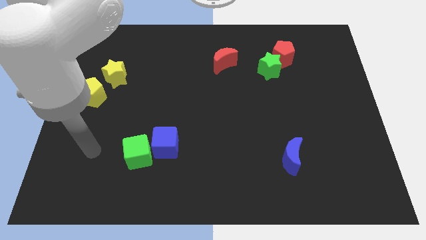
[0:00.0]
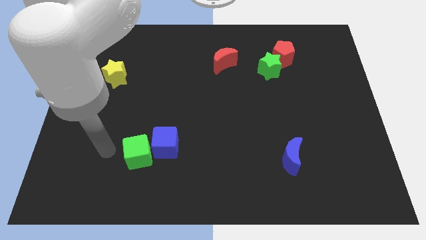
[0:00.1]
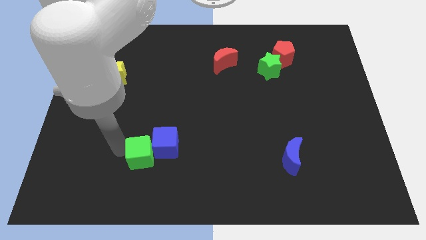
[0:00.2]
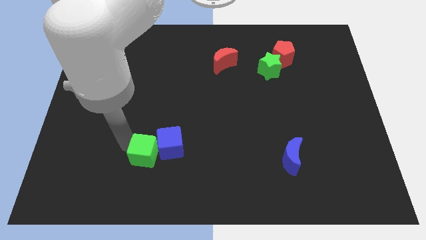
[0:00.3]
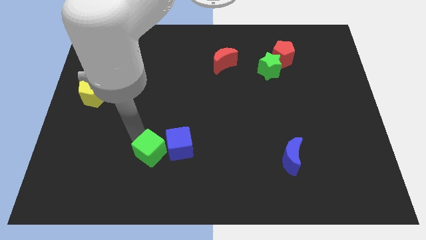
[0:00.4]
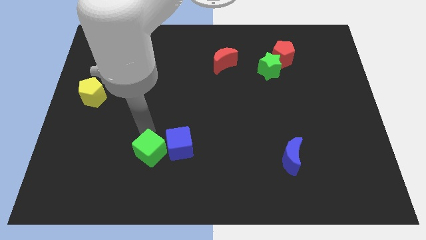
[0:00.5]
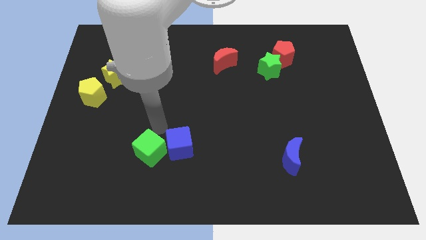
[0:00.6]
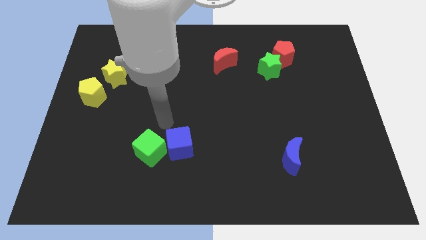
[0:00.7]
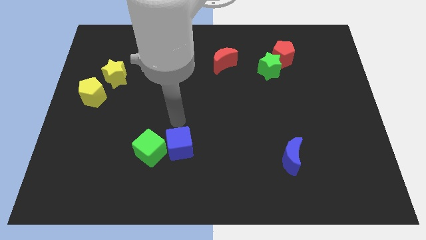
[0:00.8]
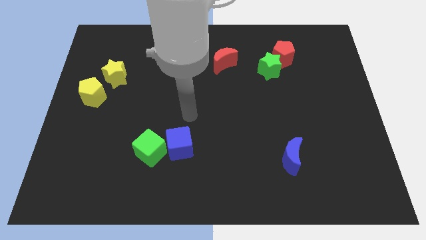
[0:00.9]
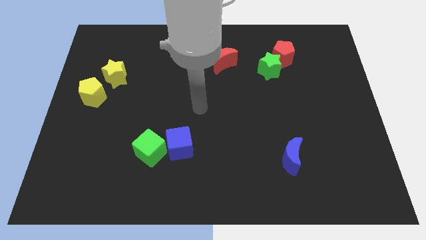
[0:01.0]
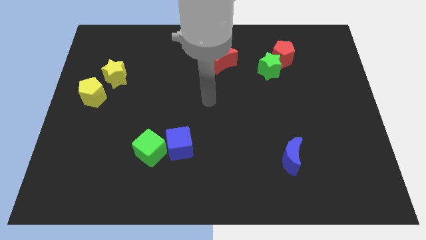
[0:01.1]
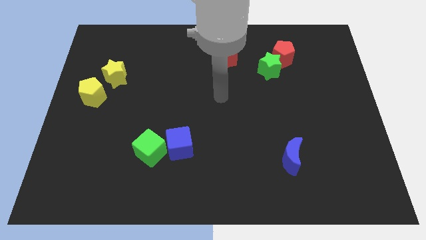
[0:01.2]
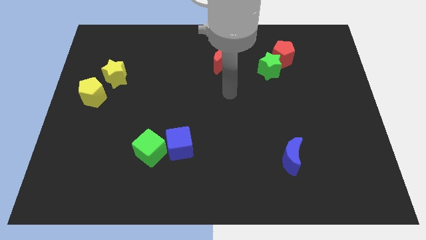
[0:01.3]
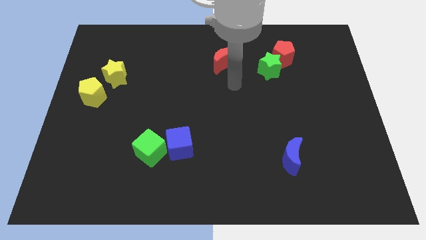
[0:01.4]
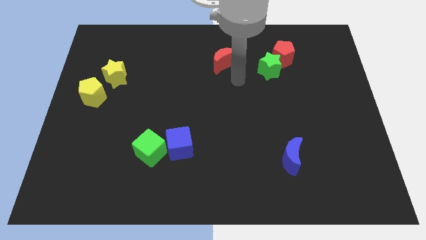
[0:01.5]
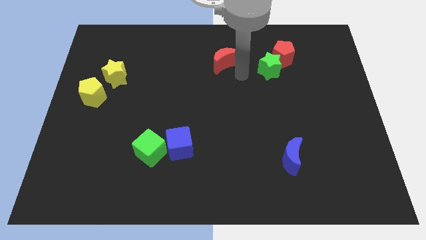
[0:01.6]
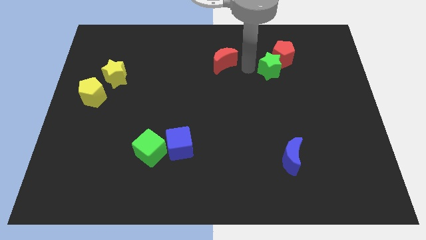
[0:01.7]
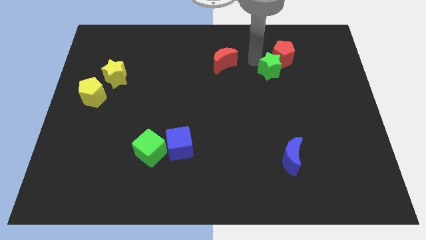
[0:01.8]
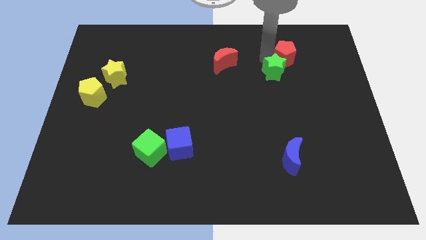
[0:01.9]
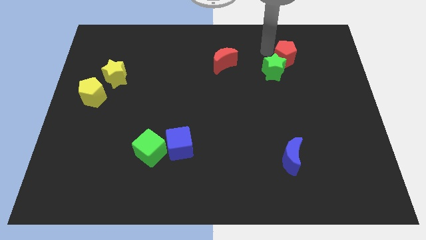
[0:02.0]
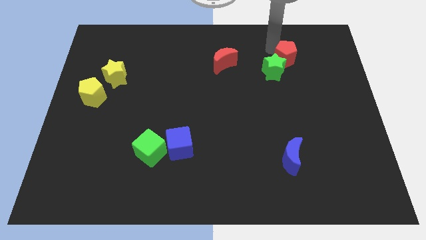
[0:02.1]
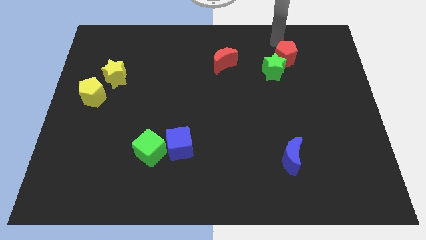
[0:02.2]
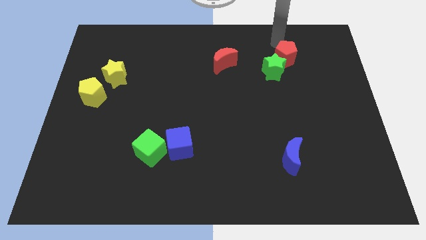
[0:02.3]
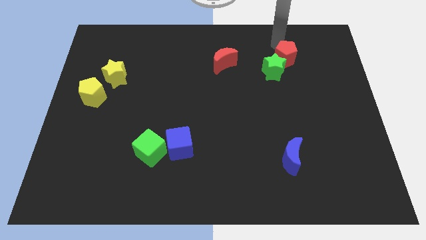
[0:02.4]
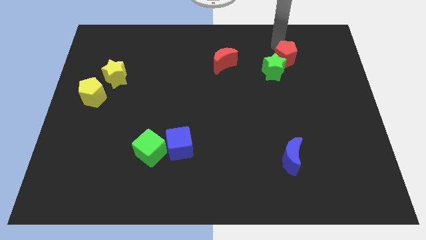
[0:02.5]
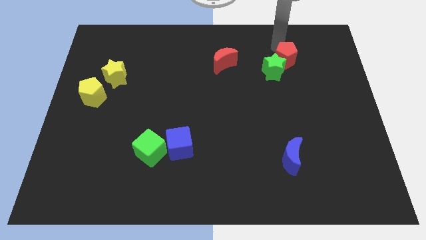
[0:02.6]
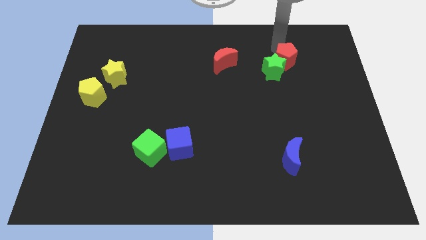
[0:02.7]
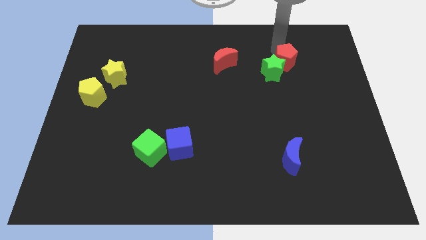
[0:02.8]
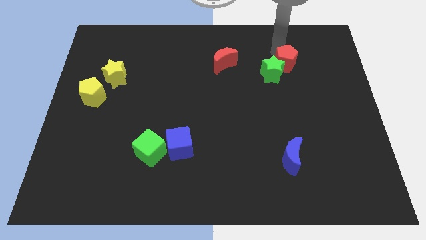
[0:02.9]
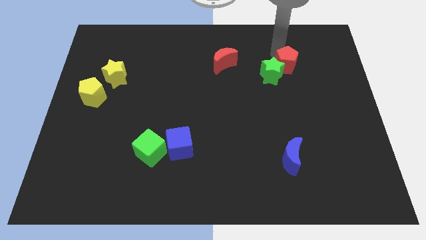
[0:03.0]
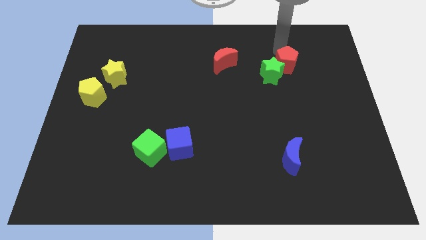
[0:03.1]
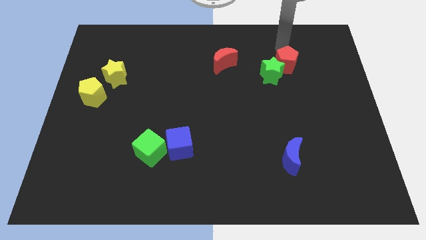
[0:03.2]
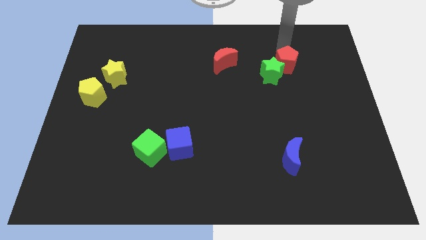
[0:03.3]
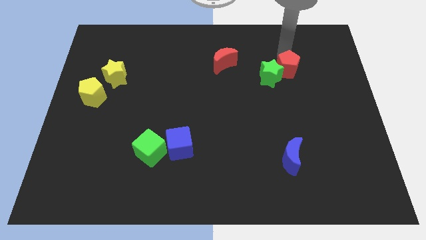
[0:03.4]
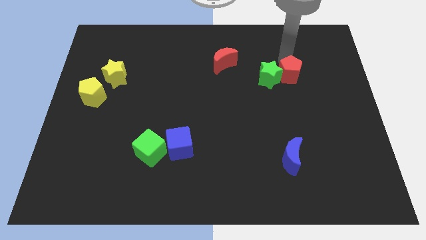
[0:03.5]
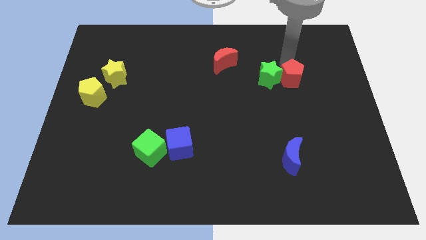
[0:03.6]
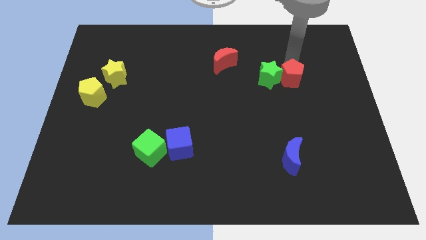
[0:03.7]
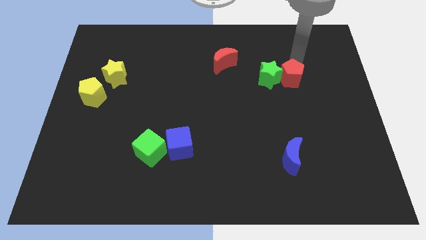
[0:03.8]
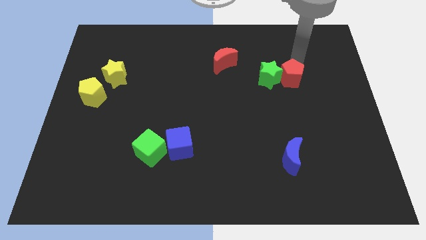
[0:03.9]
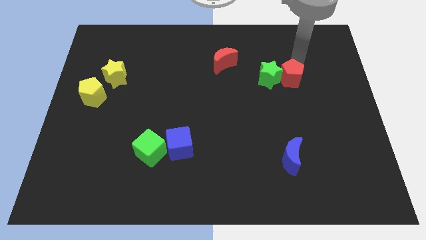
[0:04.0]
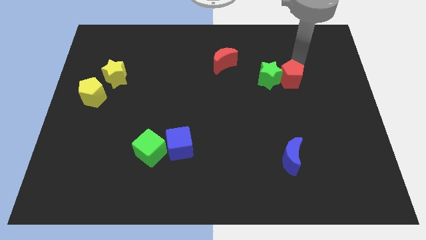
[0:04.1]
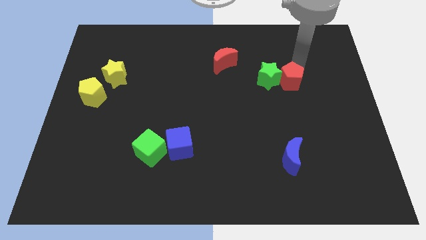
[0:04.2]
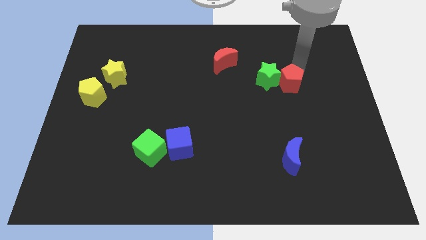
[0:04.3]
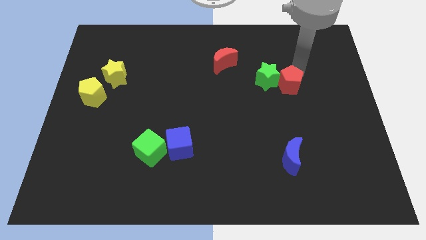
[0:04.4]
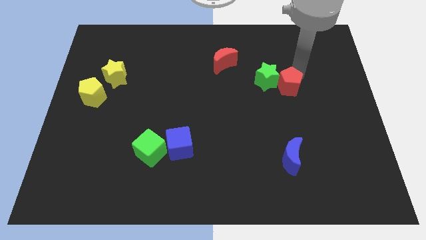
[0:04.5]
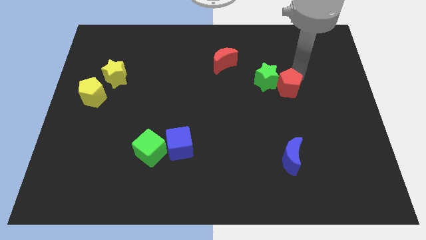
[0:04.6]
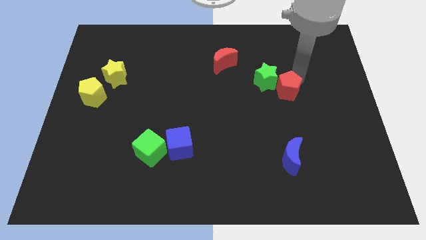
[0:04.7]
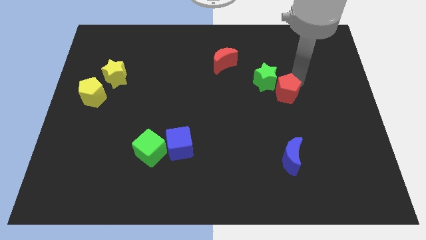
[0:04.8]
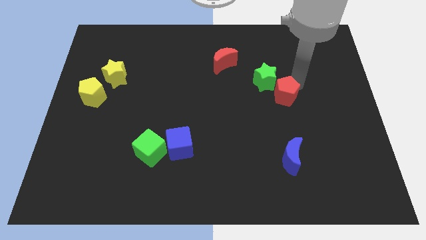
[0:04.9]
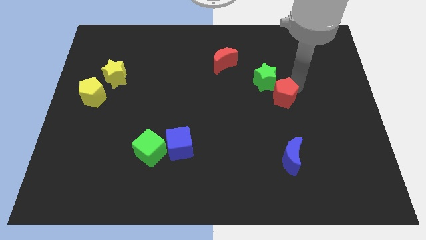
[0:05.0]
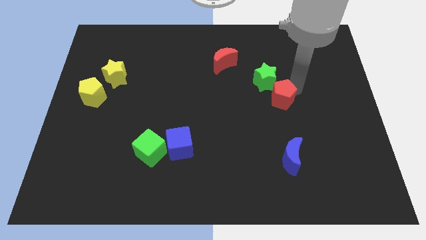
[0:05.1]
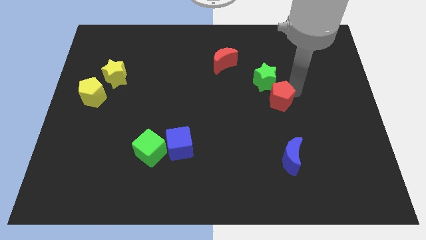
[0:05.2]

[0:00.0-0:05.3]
push the red pentagon above the blue moon

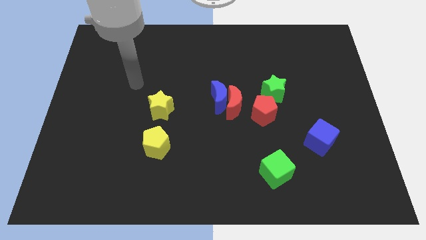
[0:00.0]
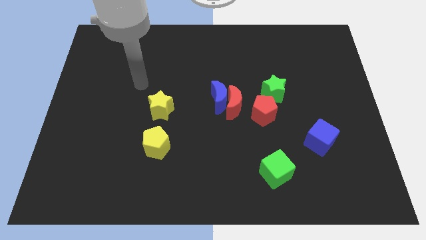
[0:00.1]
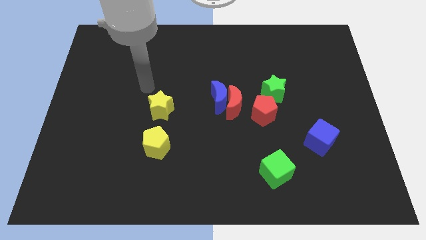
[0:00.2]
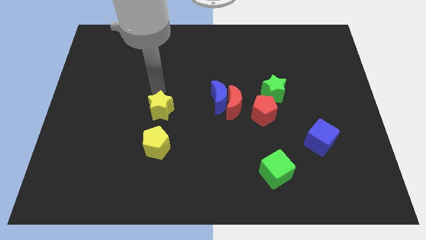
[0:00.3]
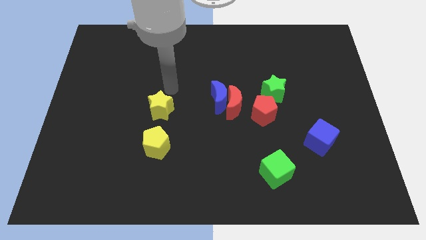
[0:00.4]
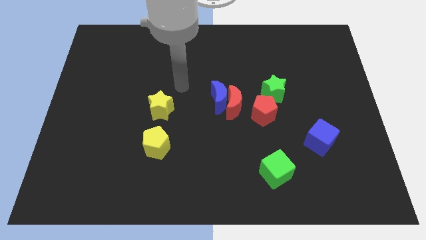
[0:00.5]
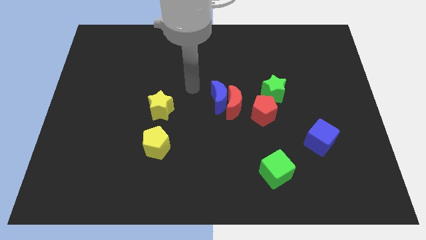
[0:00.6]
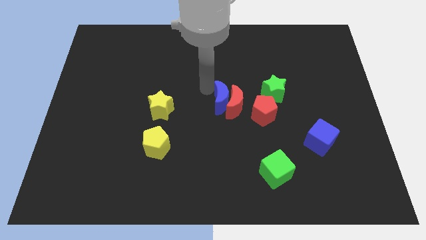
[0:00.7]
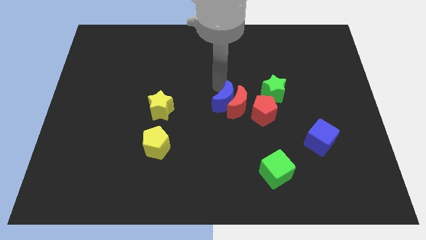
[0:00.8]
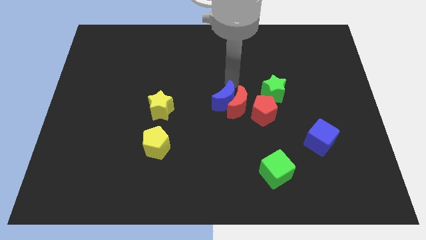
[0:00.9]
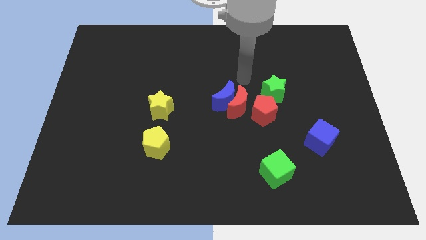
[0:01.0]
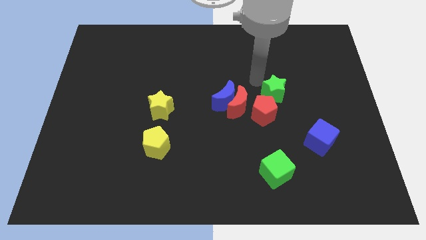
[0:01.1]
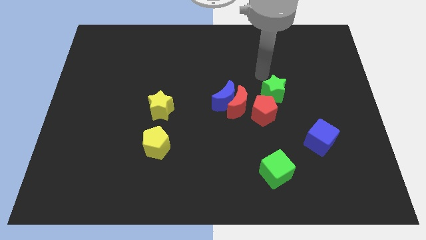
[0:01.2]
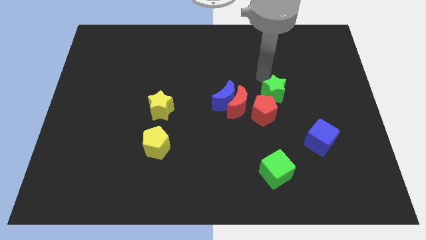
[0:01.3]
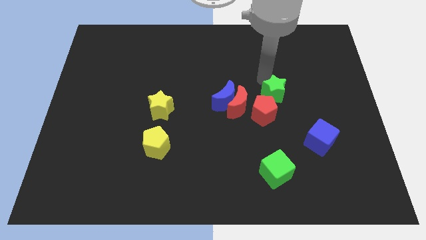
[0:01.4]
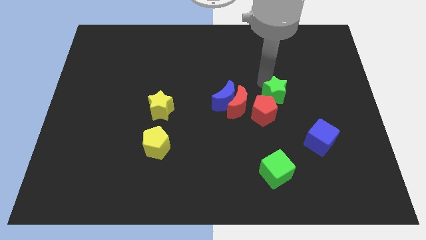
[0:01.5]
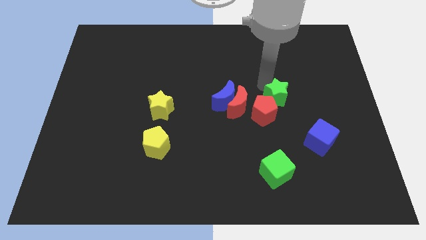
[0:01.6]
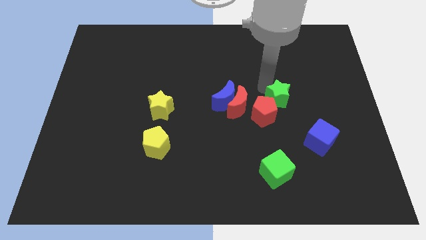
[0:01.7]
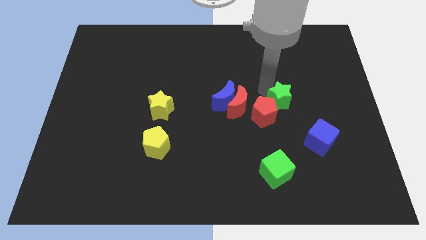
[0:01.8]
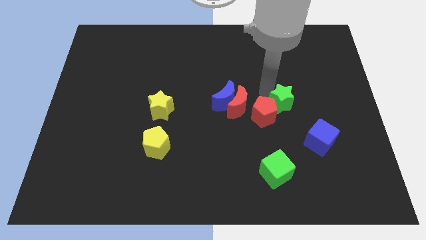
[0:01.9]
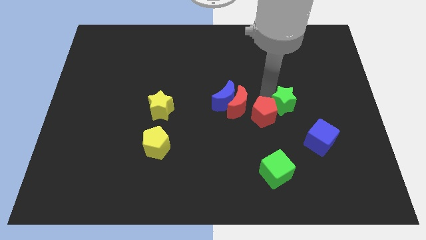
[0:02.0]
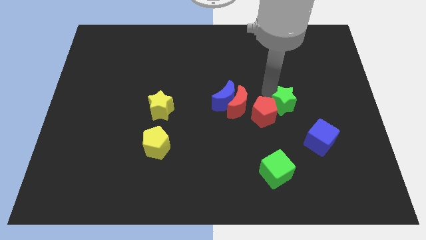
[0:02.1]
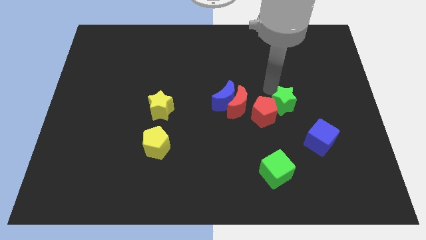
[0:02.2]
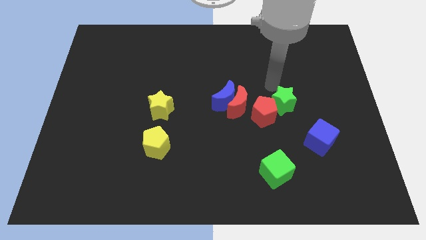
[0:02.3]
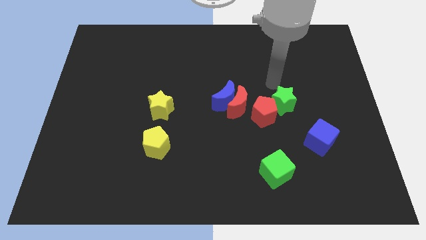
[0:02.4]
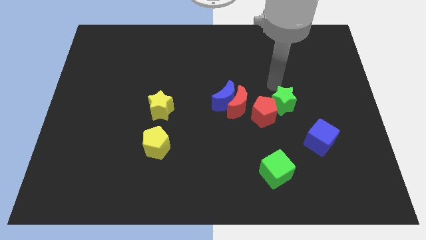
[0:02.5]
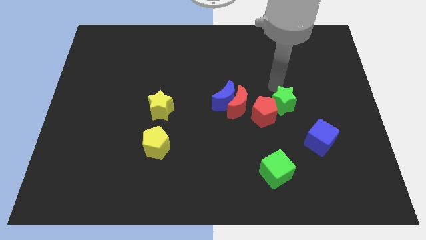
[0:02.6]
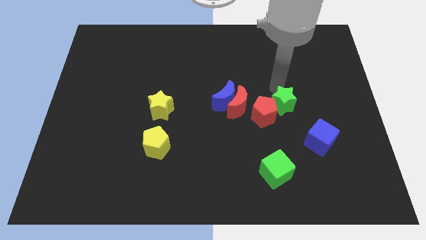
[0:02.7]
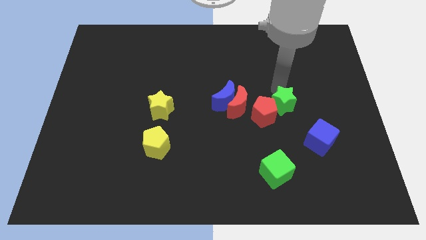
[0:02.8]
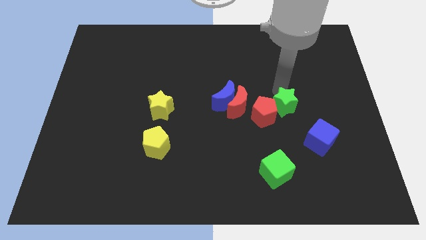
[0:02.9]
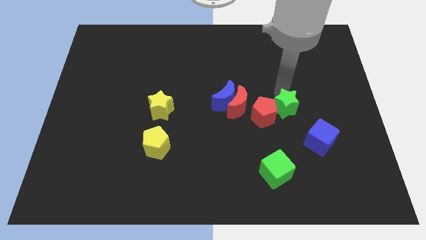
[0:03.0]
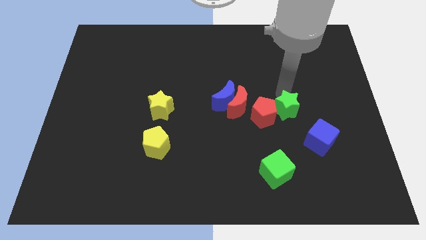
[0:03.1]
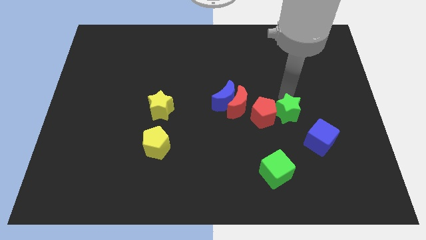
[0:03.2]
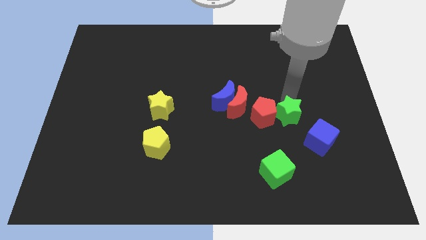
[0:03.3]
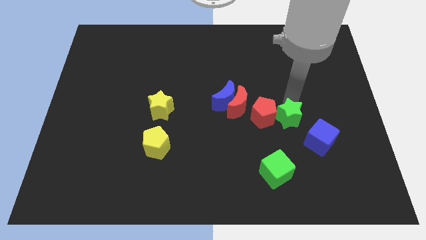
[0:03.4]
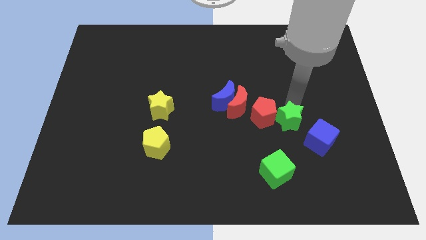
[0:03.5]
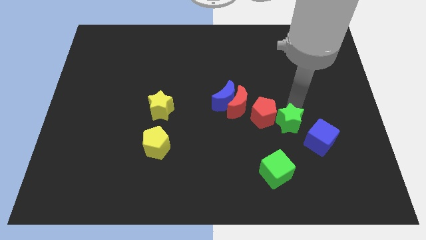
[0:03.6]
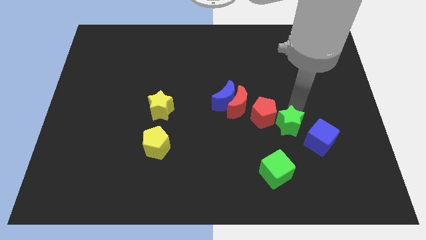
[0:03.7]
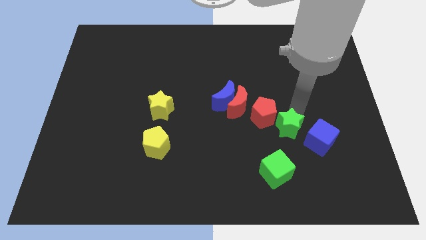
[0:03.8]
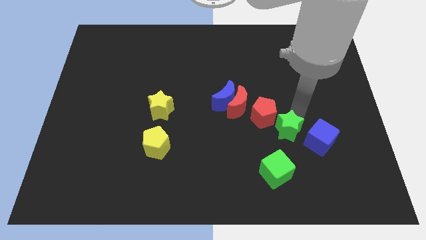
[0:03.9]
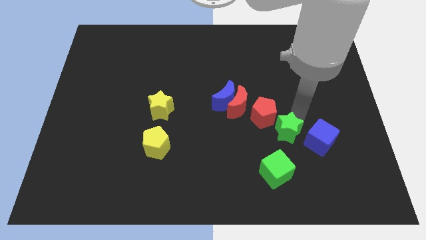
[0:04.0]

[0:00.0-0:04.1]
move the green star below the red pentagon
